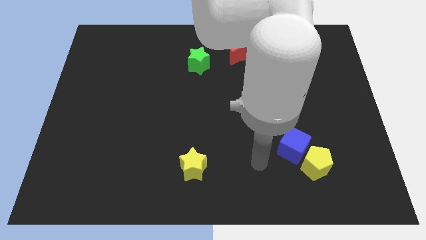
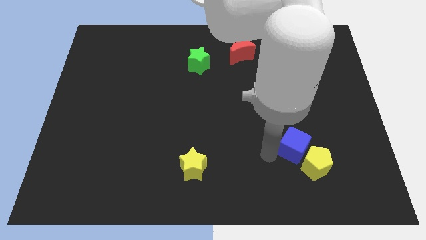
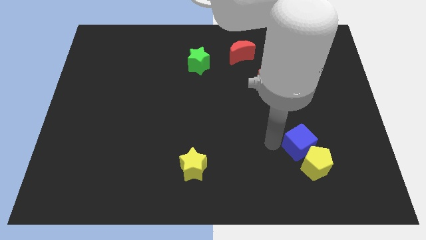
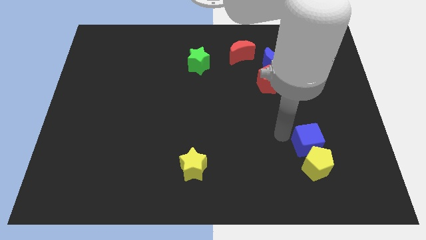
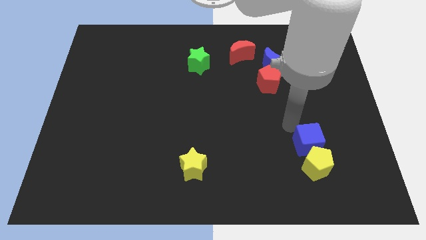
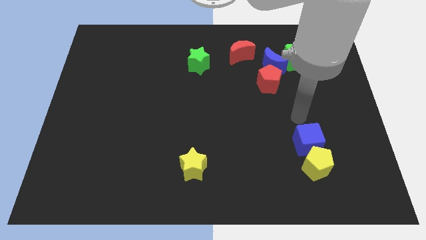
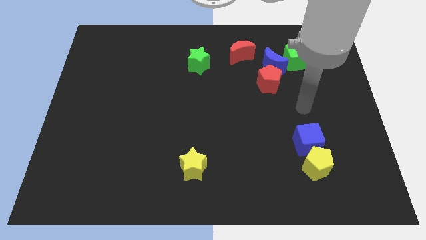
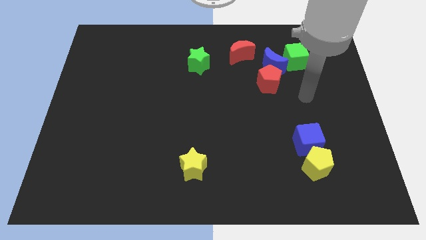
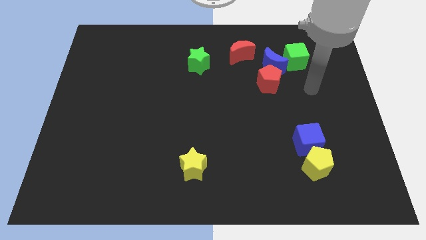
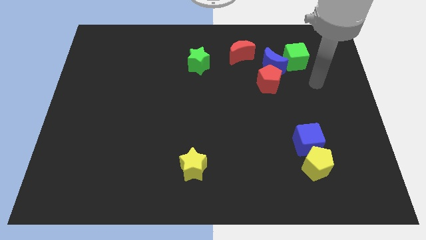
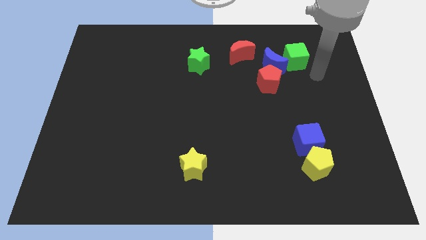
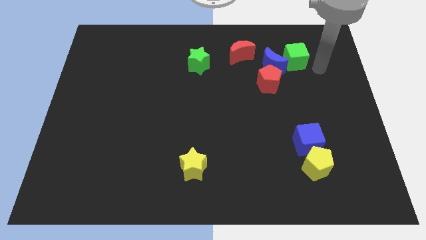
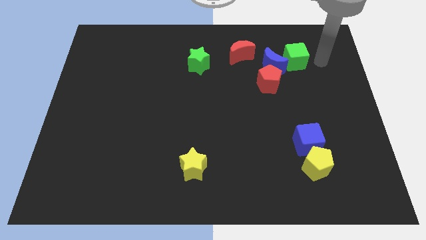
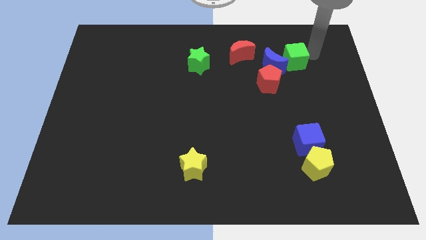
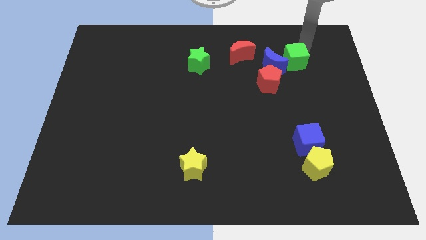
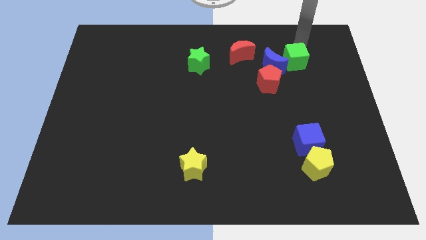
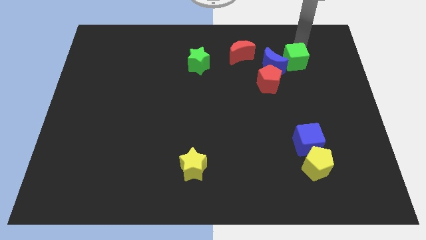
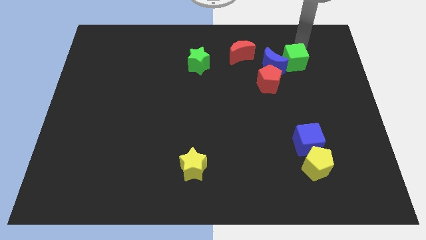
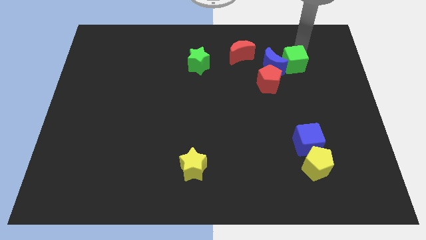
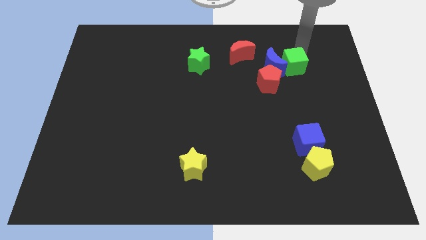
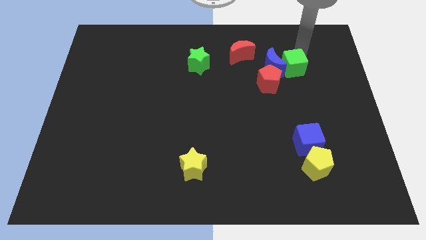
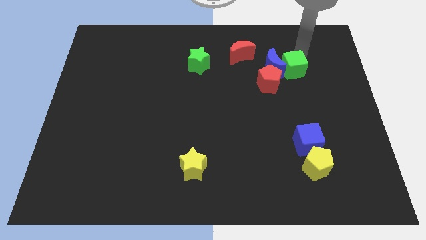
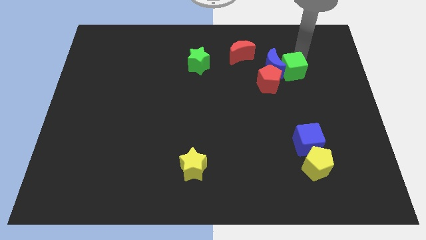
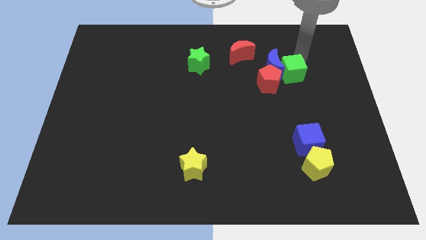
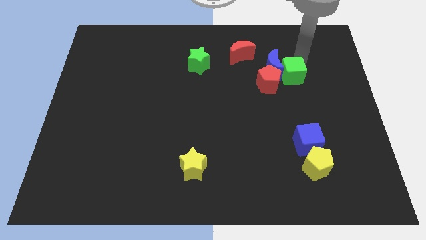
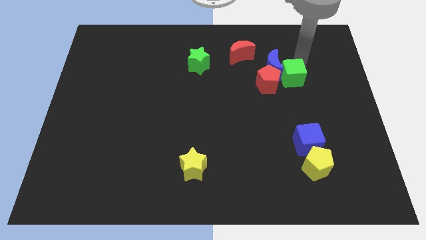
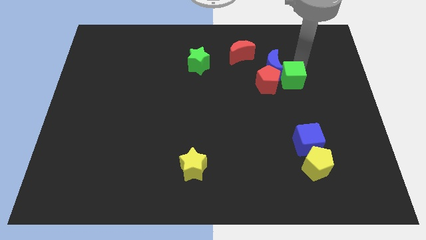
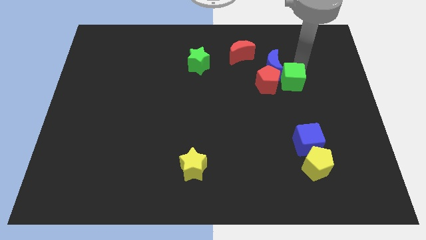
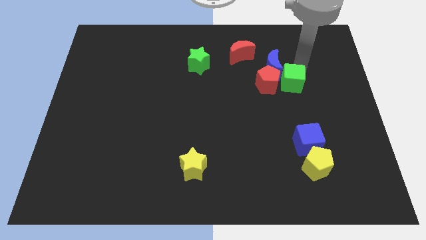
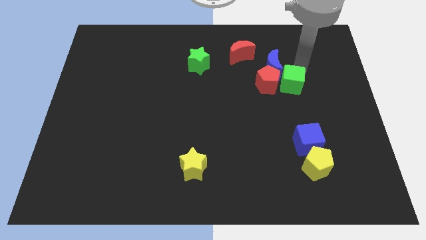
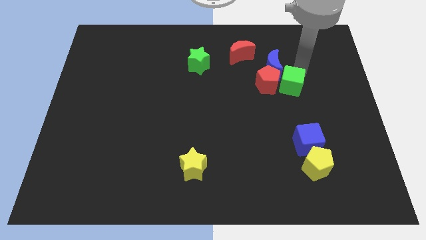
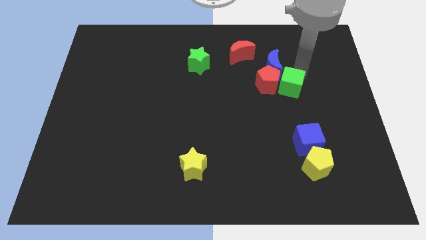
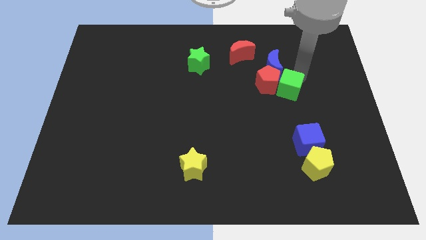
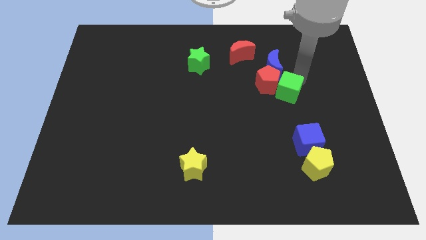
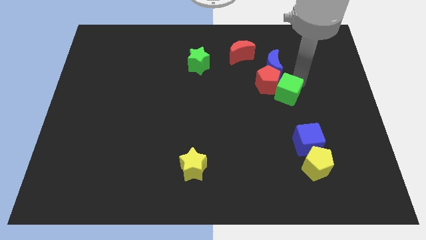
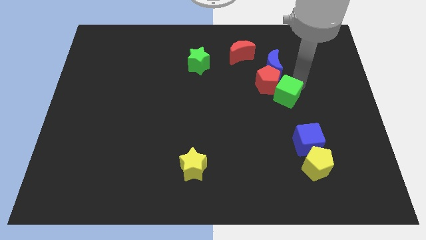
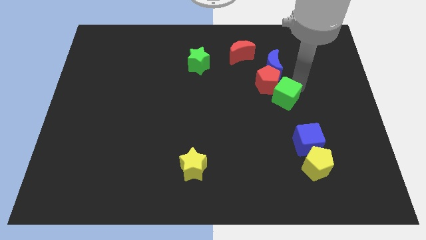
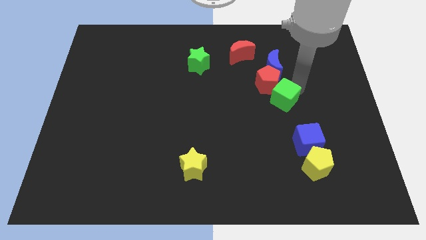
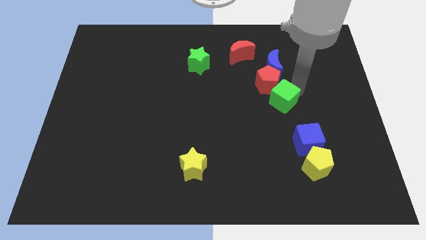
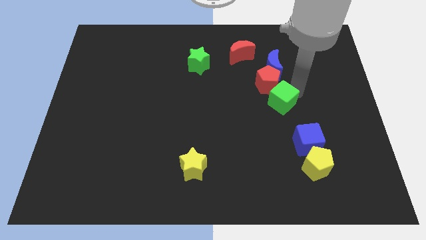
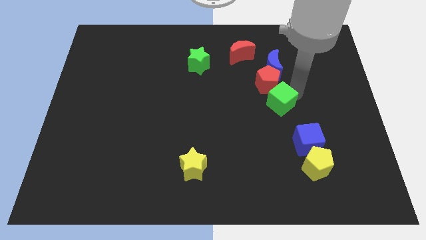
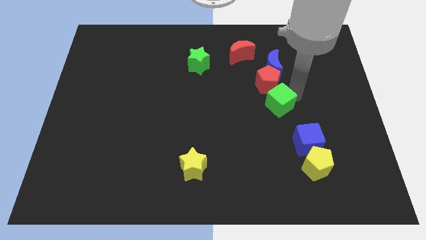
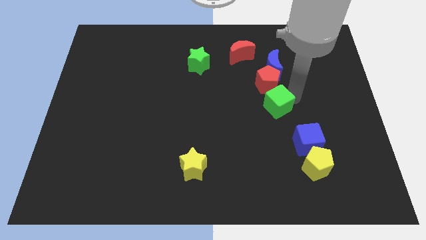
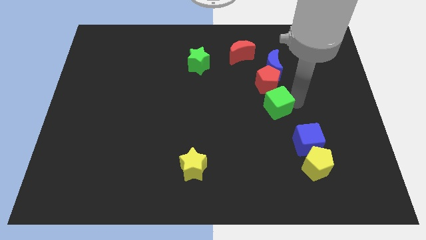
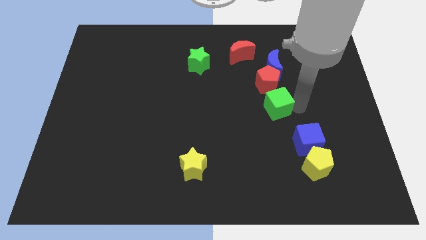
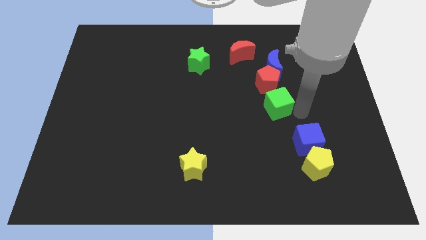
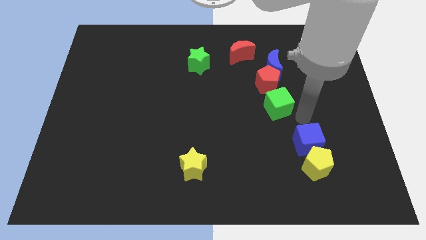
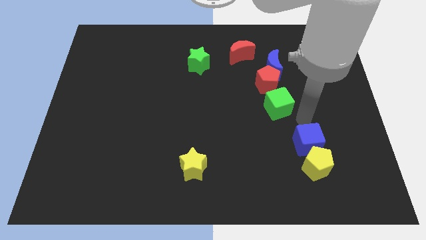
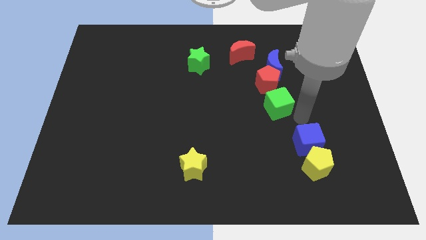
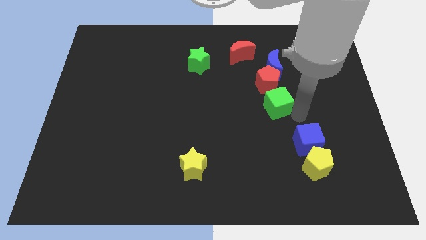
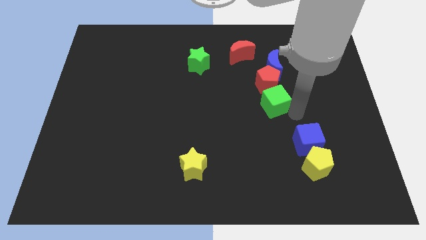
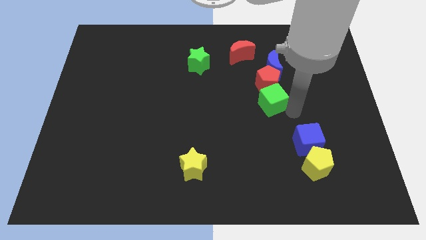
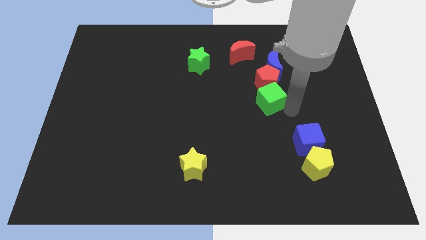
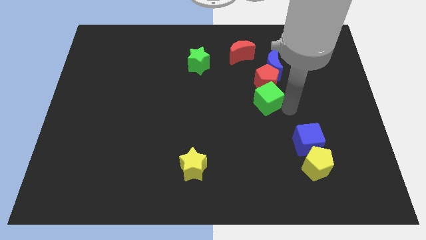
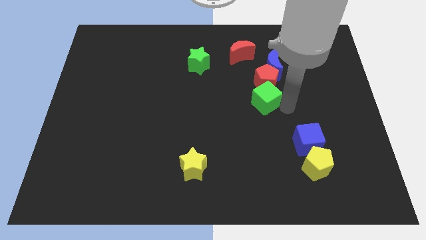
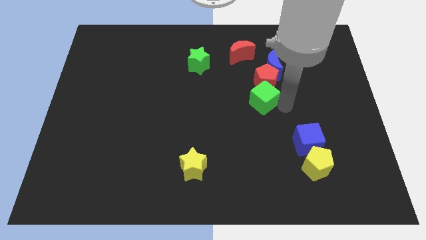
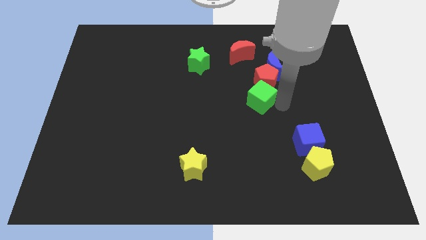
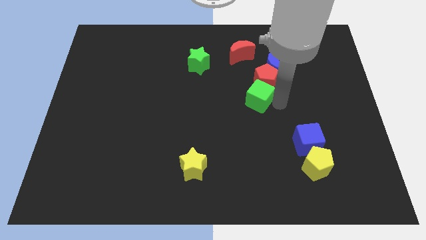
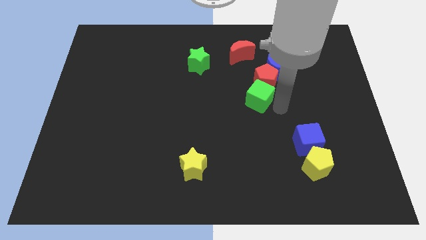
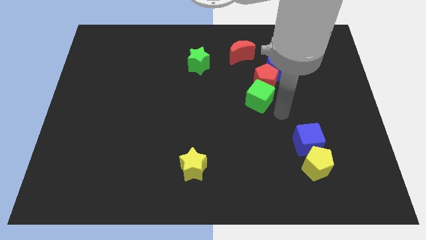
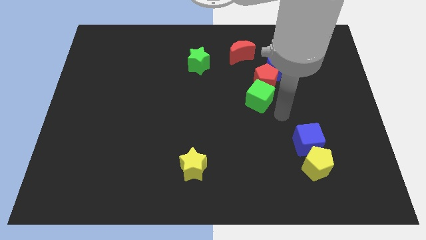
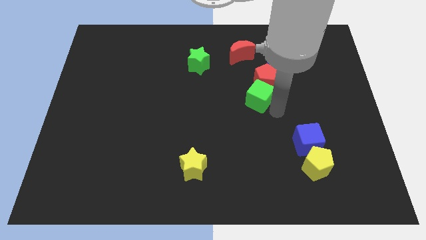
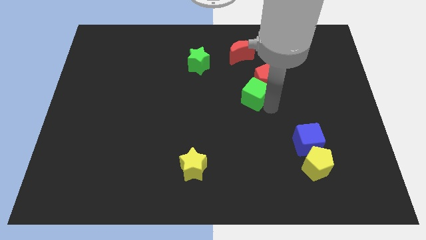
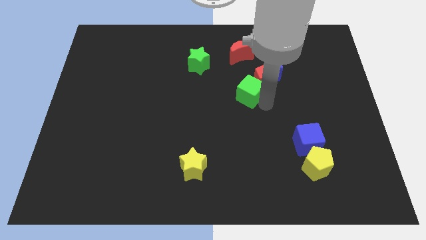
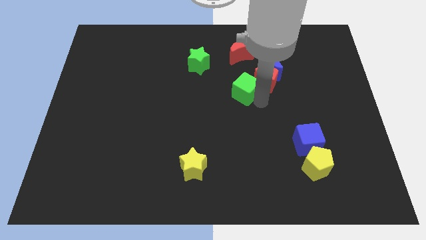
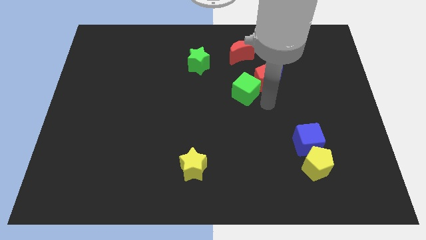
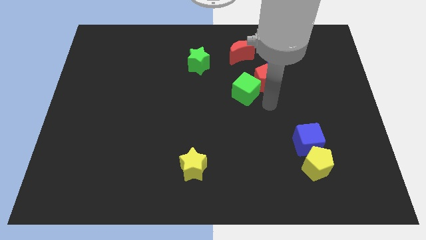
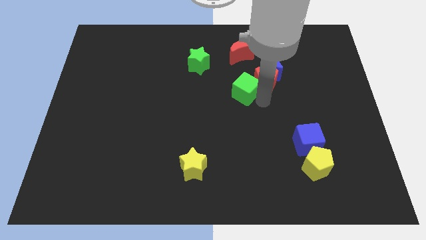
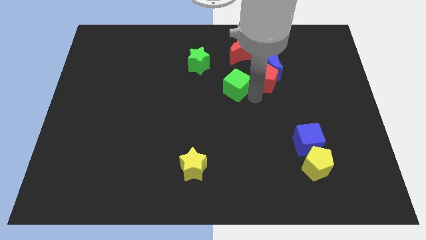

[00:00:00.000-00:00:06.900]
move the green cube to the bottom right of the green star

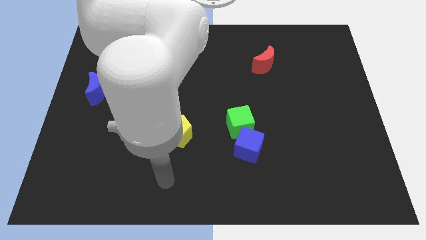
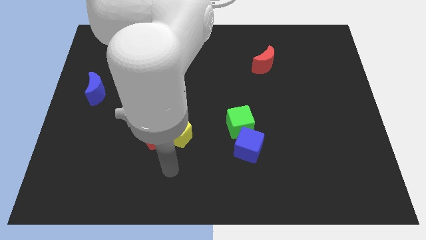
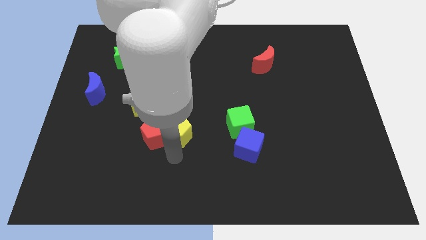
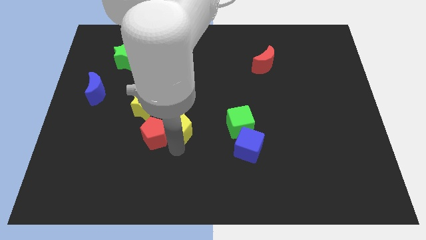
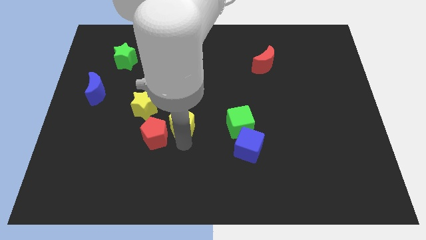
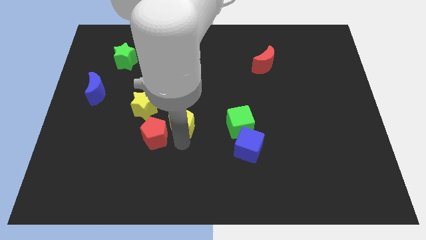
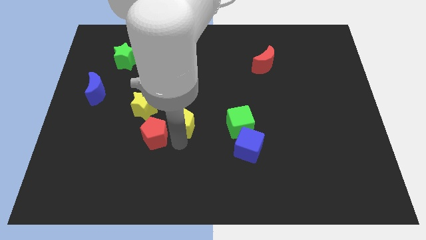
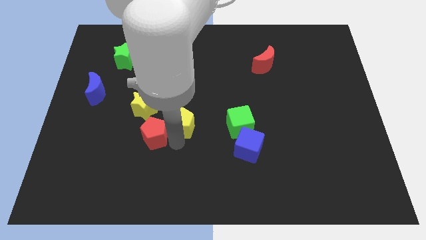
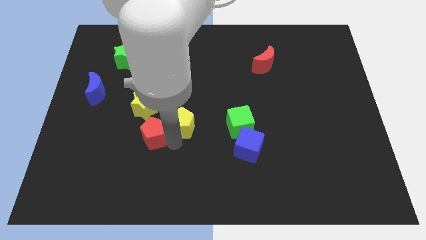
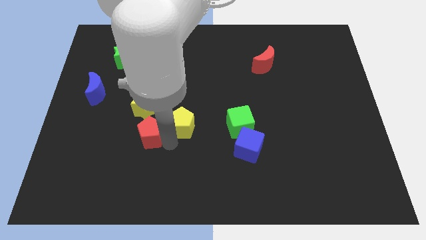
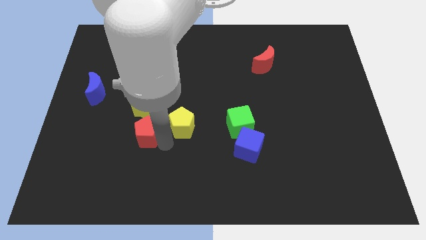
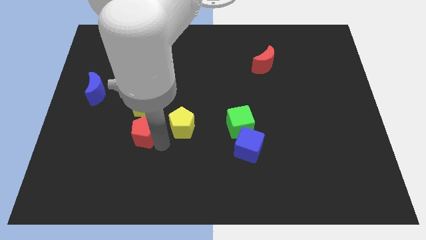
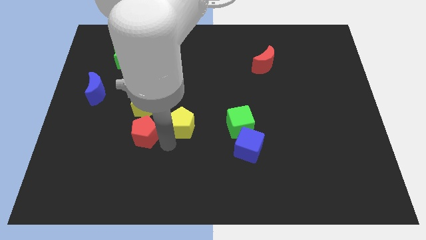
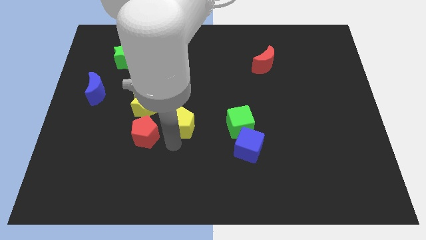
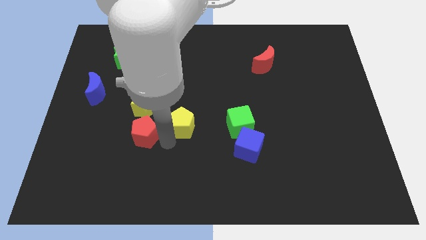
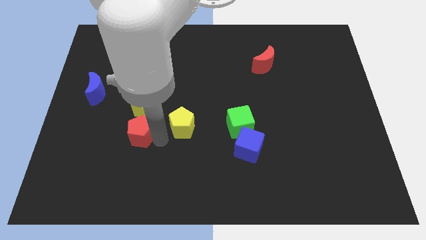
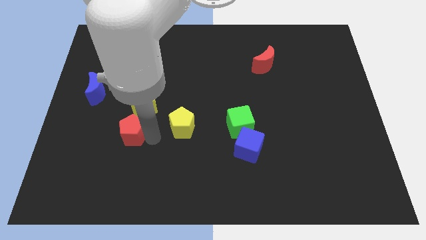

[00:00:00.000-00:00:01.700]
put the red pentagon to the bottom left of the yellow star
